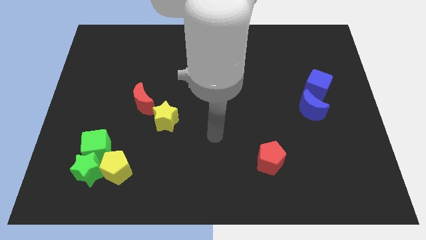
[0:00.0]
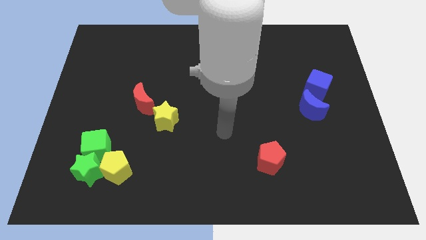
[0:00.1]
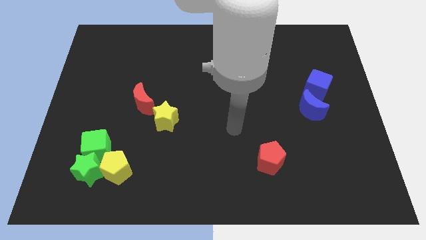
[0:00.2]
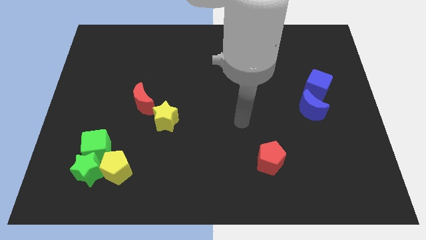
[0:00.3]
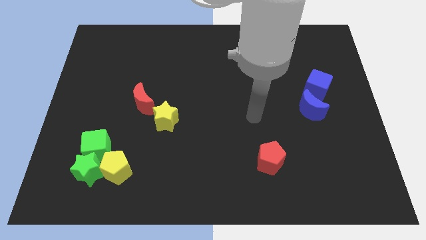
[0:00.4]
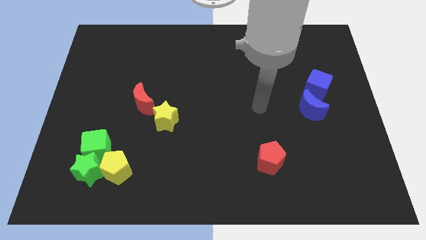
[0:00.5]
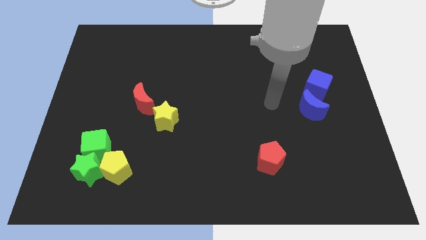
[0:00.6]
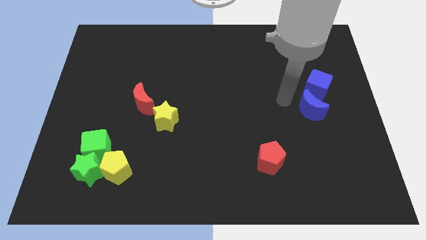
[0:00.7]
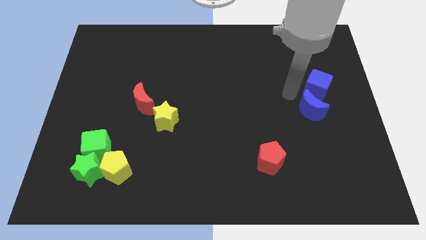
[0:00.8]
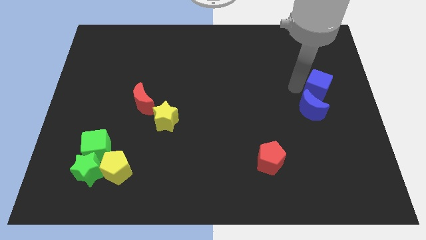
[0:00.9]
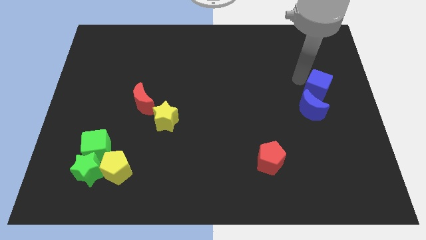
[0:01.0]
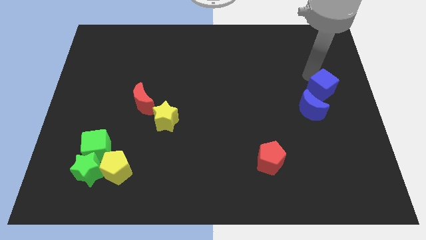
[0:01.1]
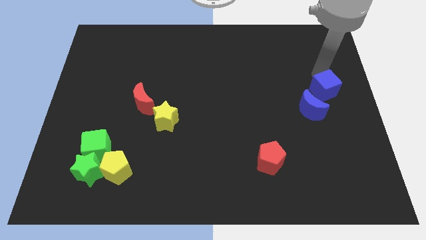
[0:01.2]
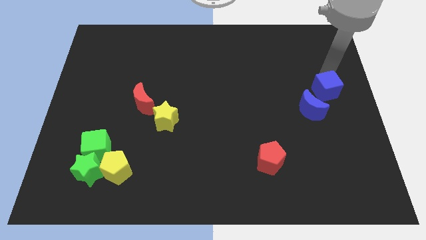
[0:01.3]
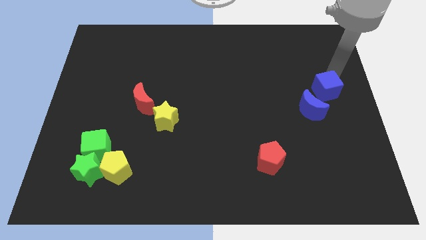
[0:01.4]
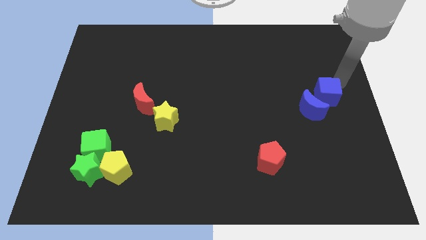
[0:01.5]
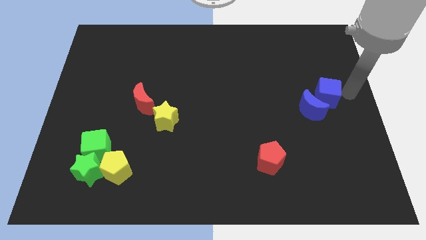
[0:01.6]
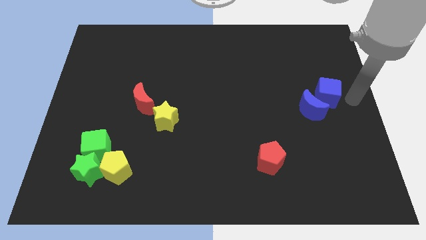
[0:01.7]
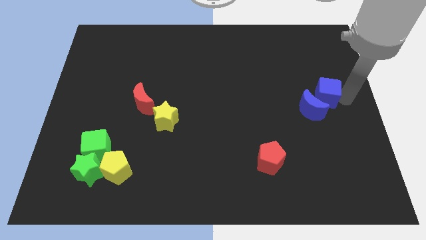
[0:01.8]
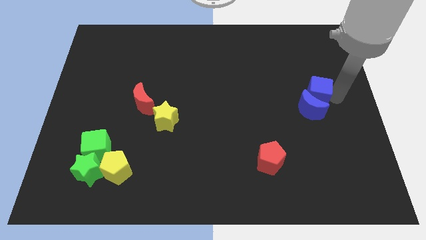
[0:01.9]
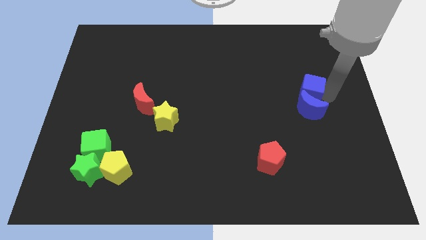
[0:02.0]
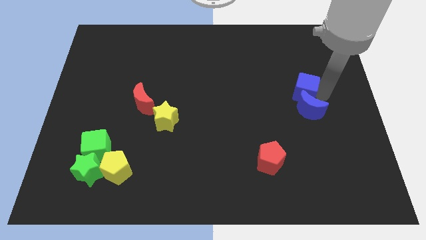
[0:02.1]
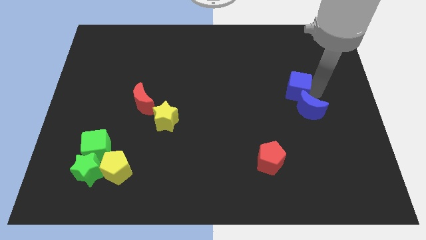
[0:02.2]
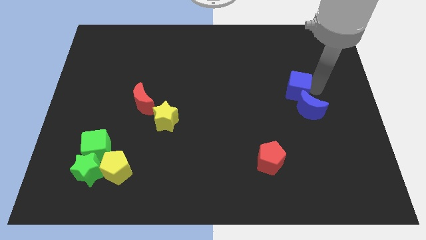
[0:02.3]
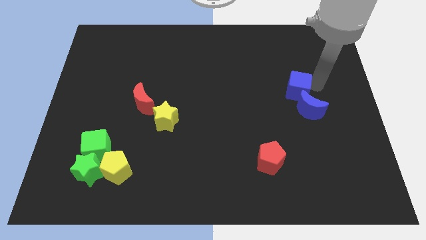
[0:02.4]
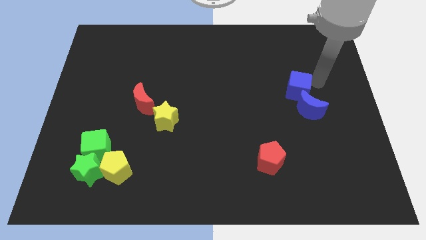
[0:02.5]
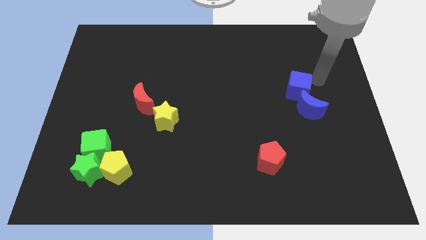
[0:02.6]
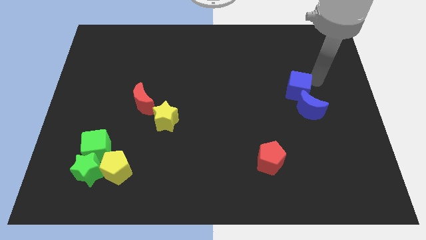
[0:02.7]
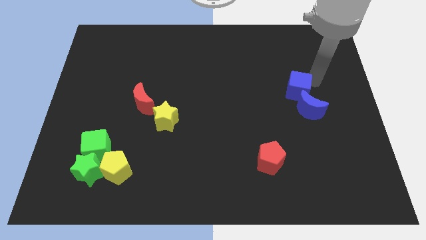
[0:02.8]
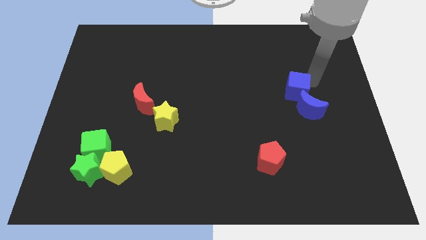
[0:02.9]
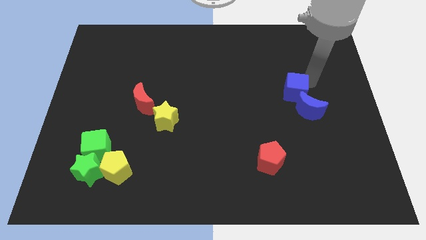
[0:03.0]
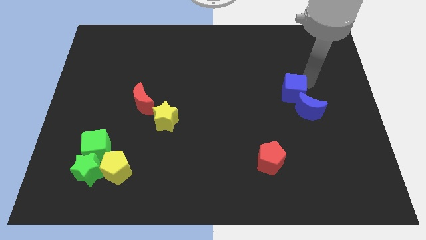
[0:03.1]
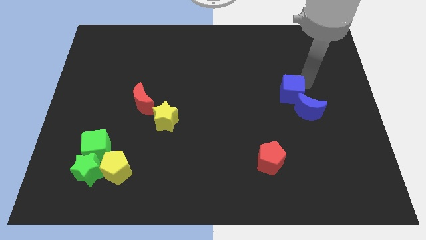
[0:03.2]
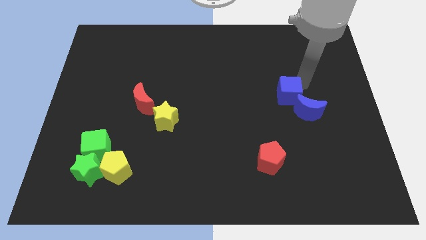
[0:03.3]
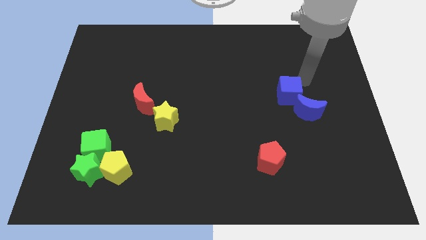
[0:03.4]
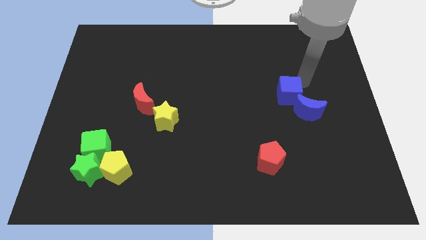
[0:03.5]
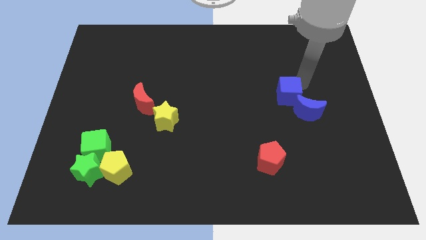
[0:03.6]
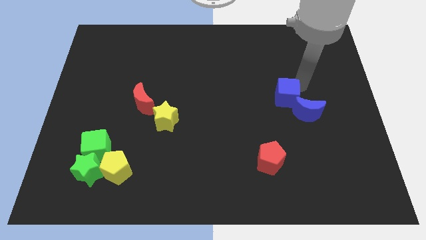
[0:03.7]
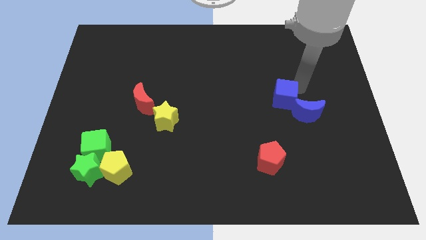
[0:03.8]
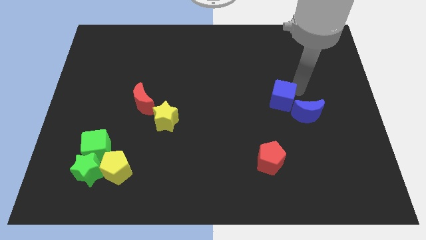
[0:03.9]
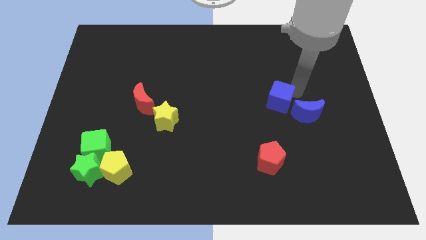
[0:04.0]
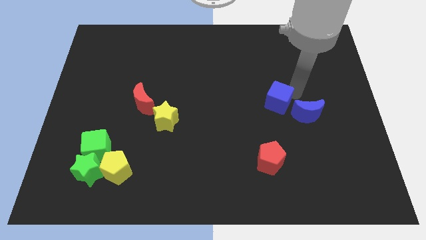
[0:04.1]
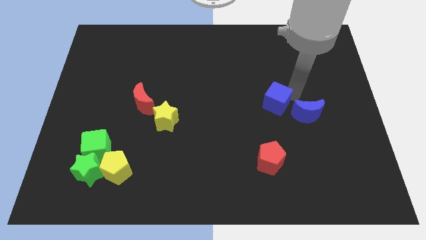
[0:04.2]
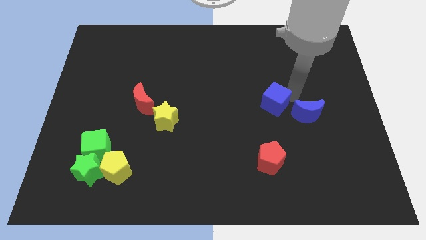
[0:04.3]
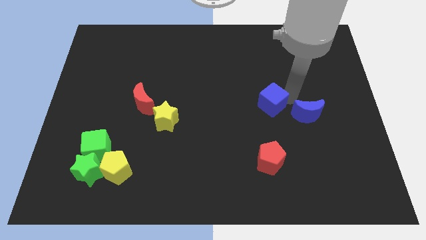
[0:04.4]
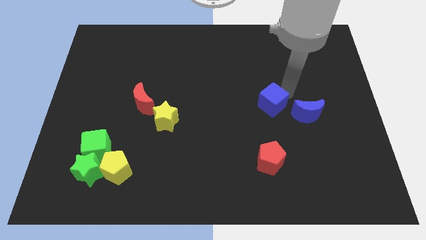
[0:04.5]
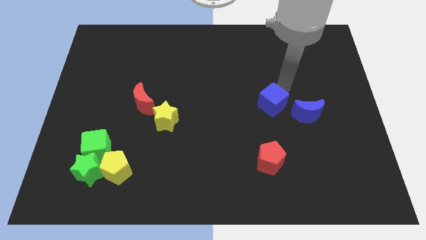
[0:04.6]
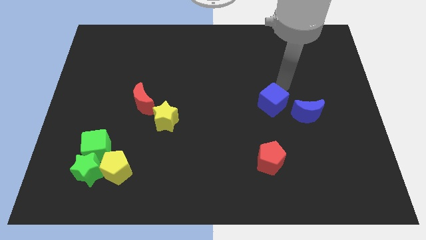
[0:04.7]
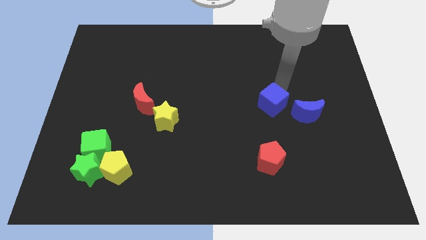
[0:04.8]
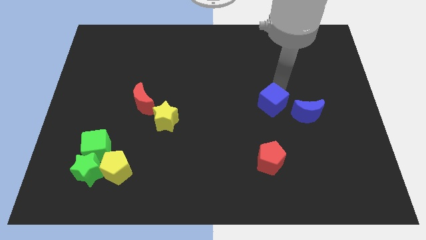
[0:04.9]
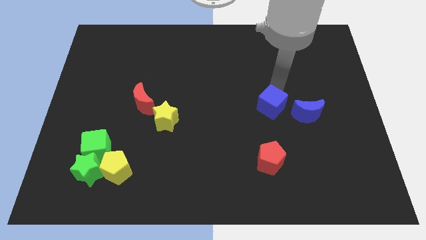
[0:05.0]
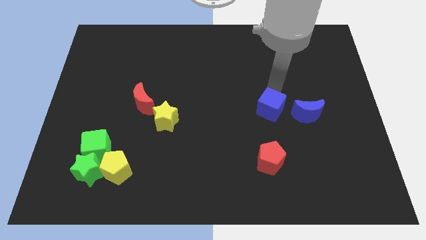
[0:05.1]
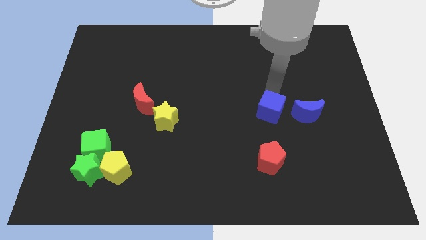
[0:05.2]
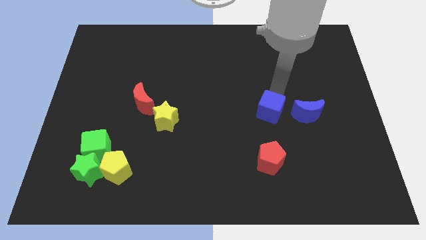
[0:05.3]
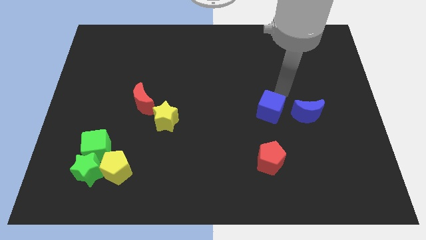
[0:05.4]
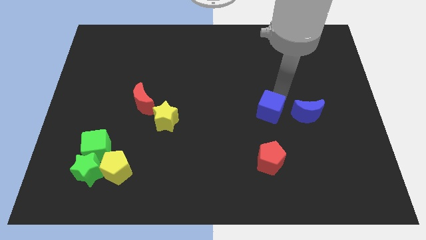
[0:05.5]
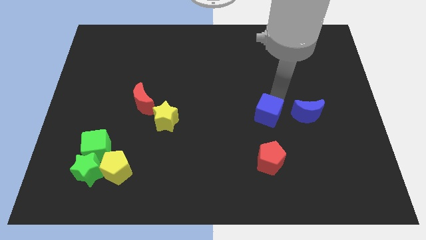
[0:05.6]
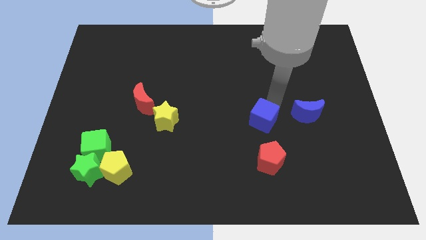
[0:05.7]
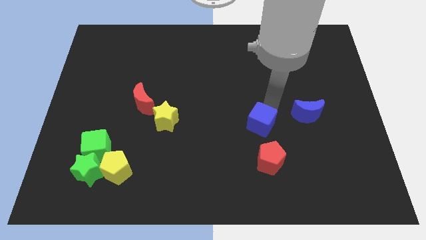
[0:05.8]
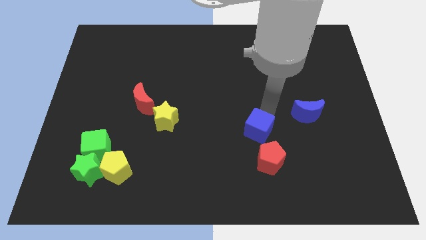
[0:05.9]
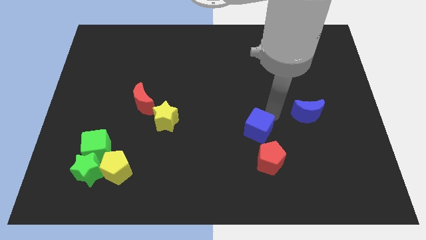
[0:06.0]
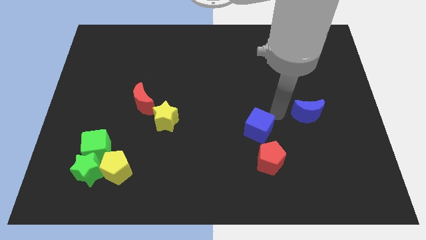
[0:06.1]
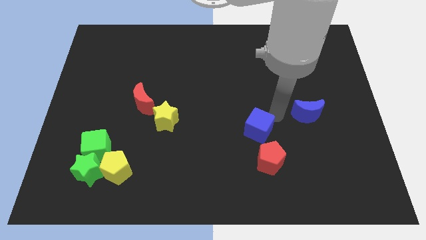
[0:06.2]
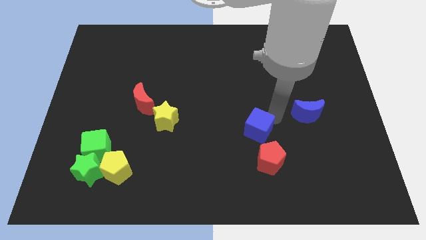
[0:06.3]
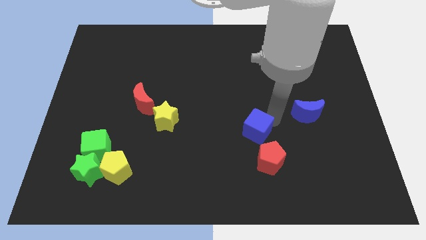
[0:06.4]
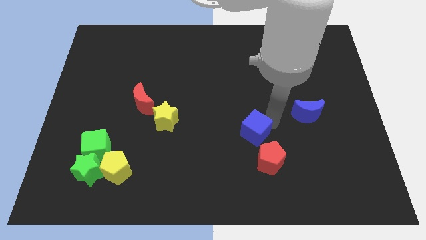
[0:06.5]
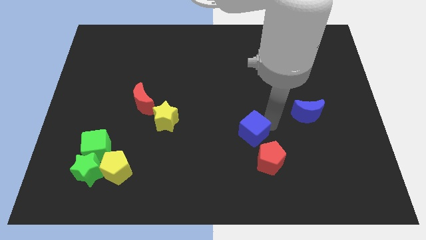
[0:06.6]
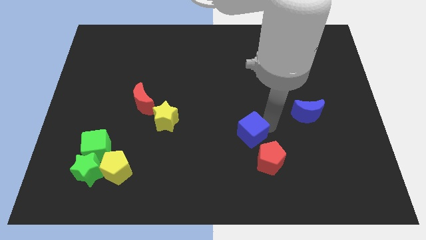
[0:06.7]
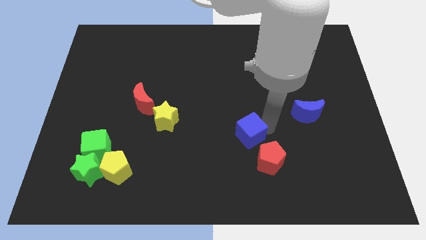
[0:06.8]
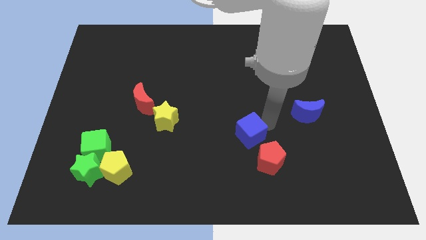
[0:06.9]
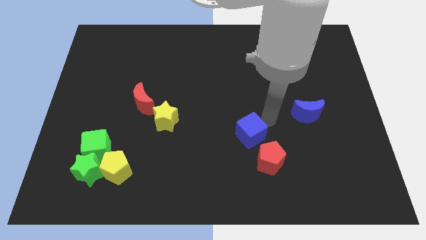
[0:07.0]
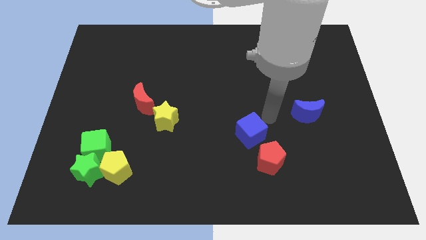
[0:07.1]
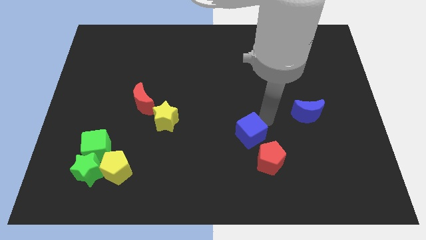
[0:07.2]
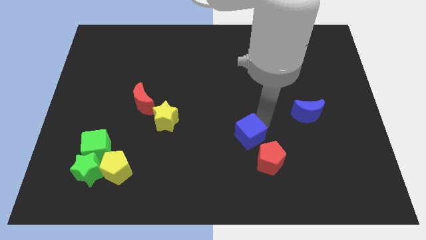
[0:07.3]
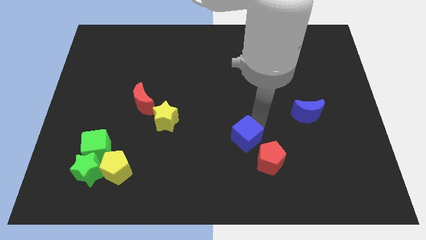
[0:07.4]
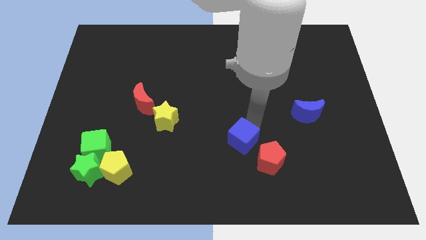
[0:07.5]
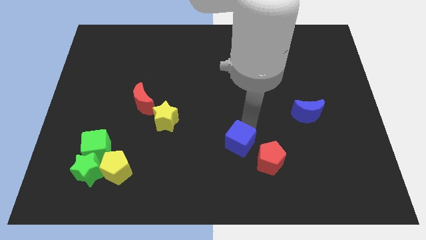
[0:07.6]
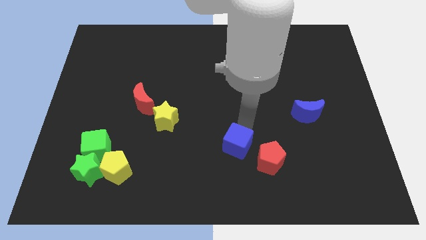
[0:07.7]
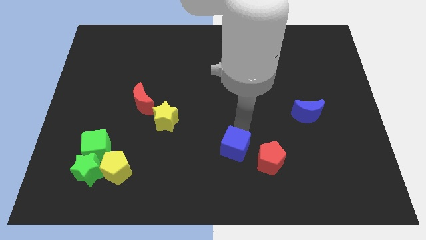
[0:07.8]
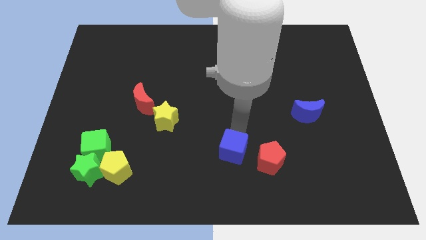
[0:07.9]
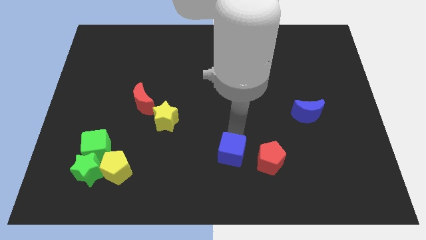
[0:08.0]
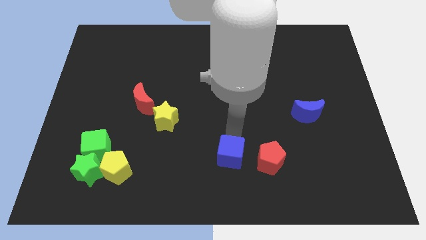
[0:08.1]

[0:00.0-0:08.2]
slide the blue cube to the bottom side
